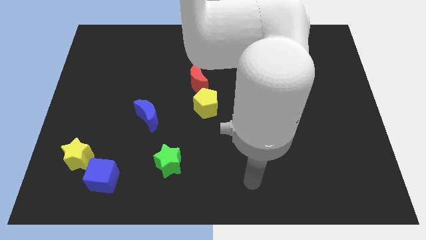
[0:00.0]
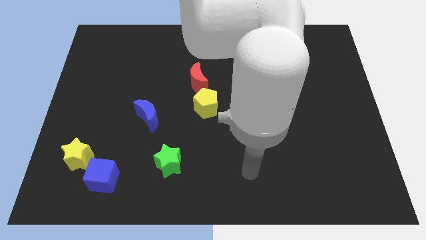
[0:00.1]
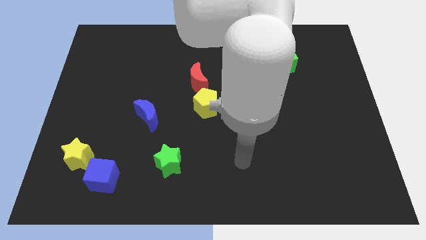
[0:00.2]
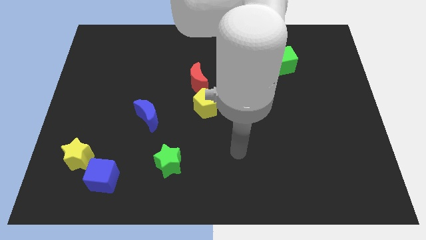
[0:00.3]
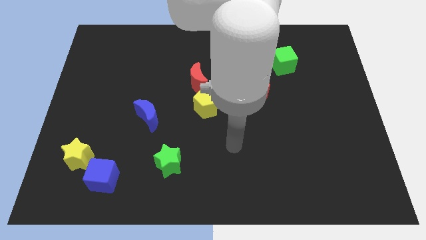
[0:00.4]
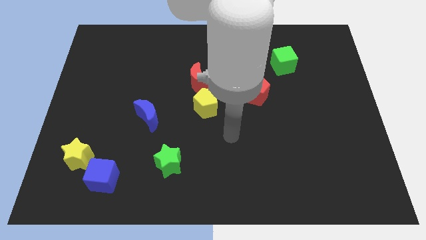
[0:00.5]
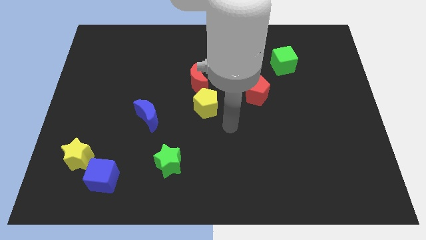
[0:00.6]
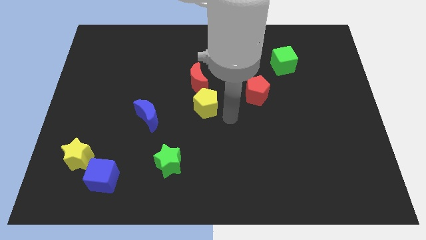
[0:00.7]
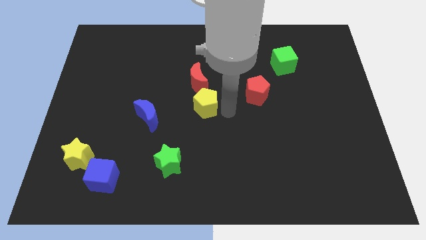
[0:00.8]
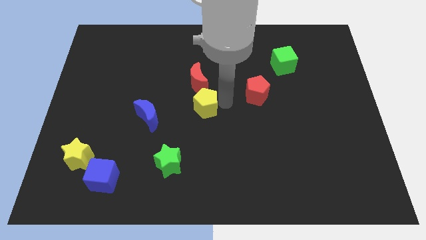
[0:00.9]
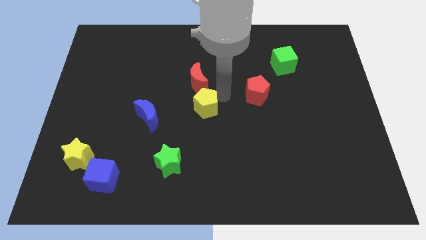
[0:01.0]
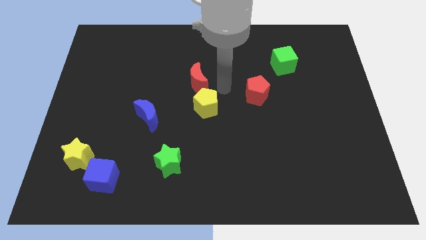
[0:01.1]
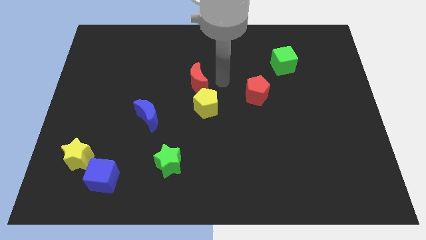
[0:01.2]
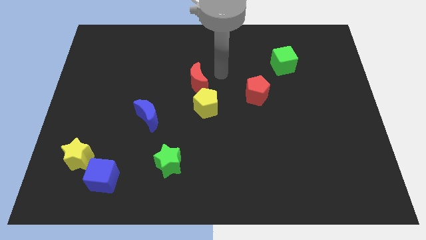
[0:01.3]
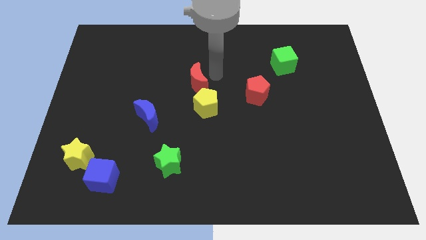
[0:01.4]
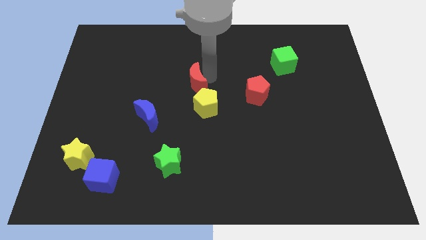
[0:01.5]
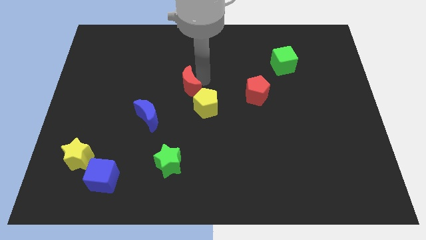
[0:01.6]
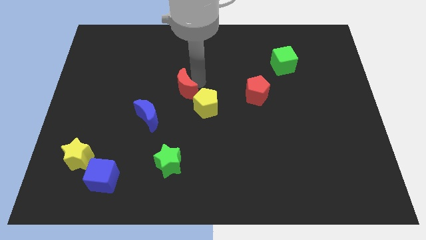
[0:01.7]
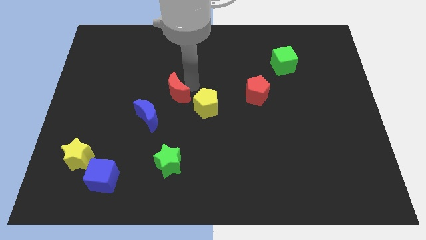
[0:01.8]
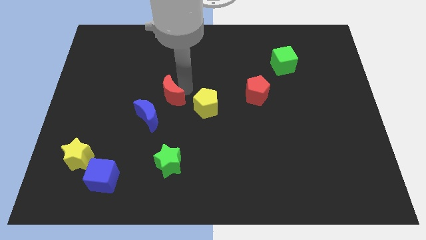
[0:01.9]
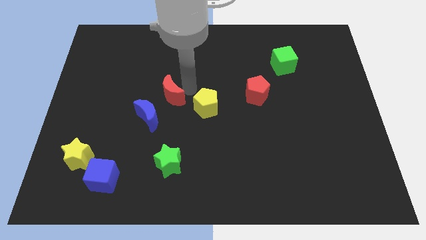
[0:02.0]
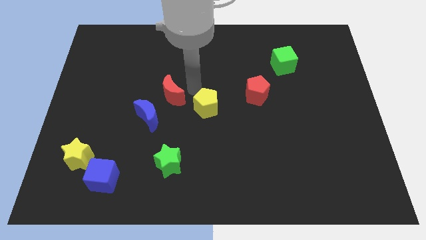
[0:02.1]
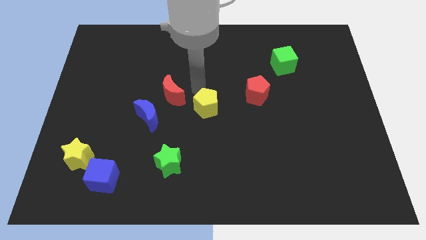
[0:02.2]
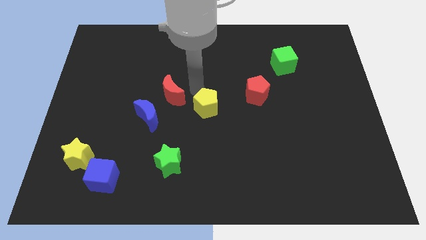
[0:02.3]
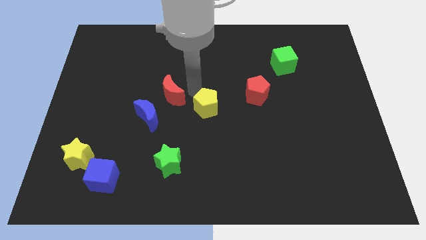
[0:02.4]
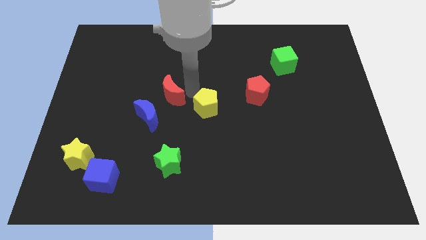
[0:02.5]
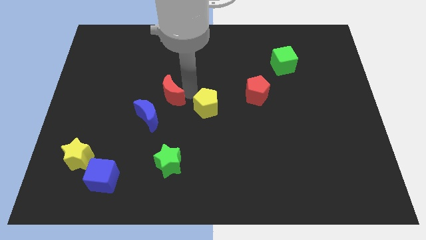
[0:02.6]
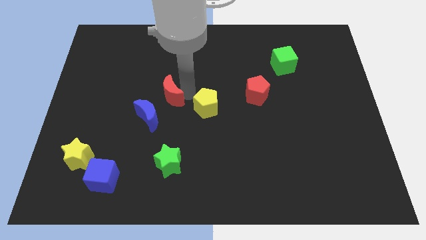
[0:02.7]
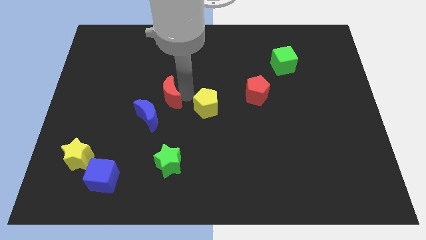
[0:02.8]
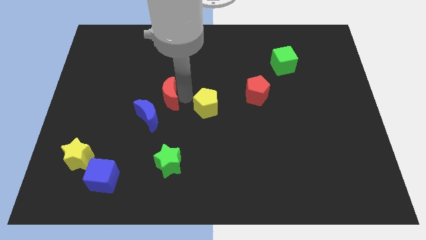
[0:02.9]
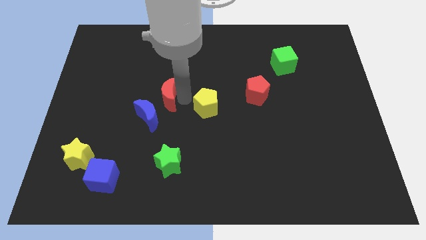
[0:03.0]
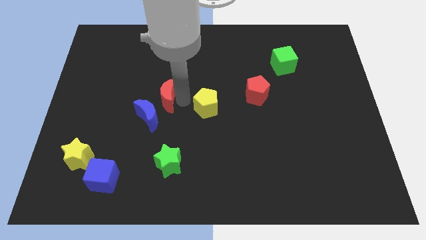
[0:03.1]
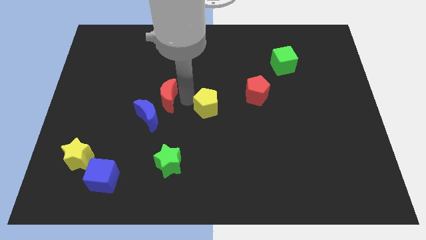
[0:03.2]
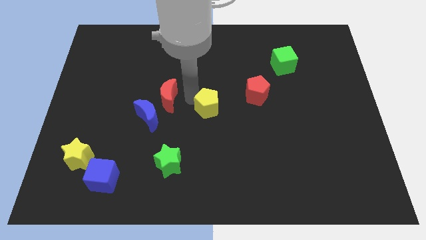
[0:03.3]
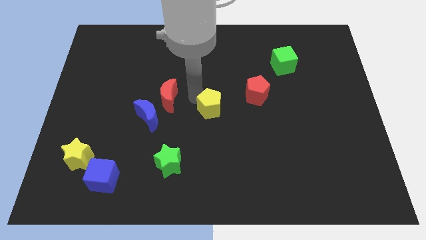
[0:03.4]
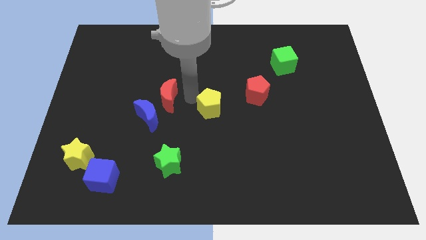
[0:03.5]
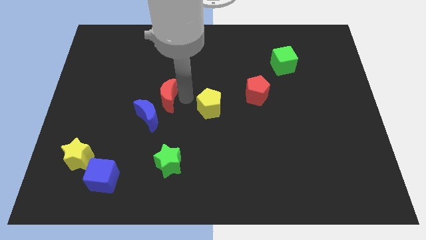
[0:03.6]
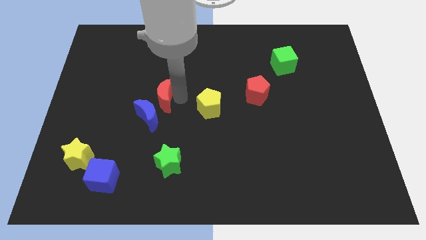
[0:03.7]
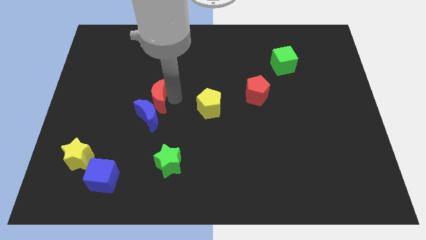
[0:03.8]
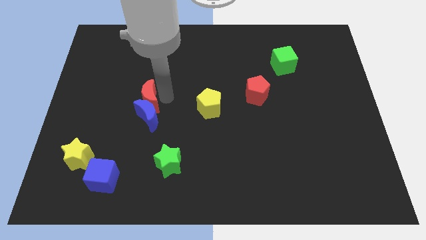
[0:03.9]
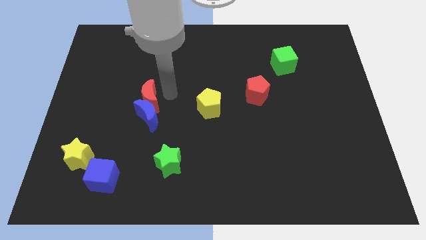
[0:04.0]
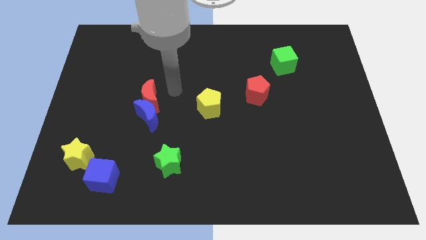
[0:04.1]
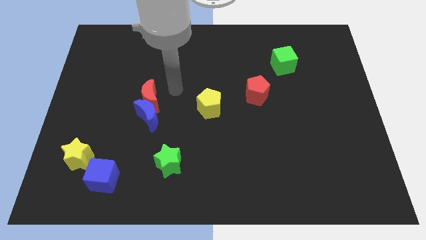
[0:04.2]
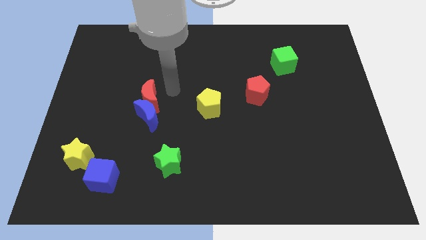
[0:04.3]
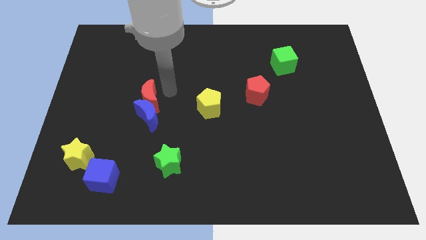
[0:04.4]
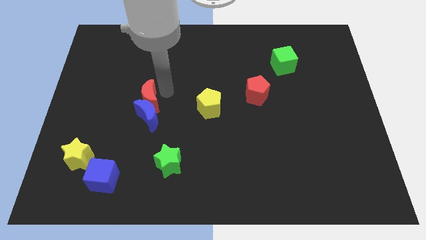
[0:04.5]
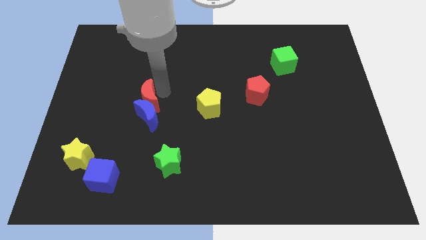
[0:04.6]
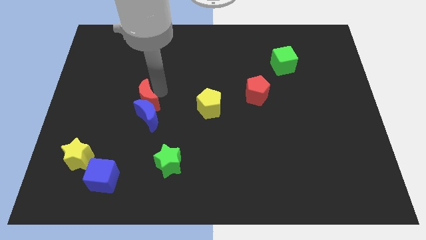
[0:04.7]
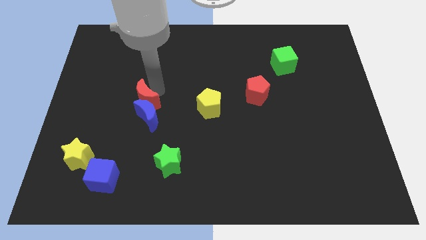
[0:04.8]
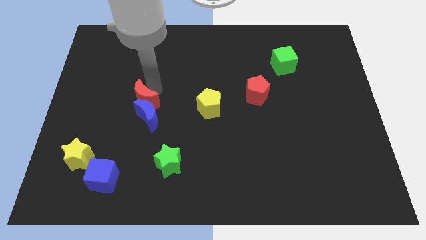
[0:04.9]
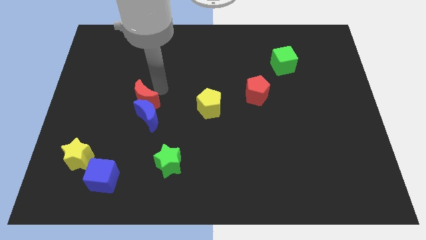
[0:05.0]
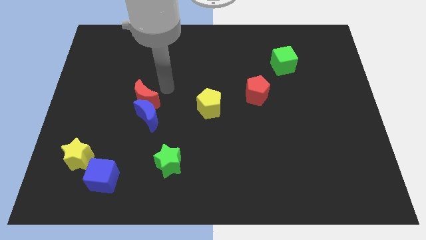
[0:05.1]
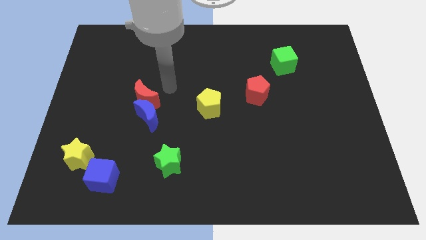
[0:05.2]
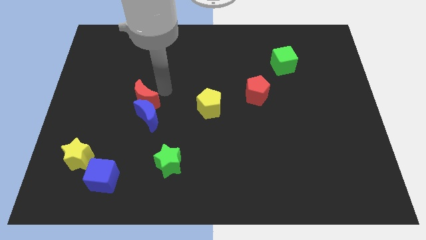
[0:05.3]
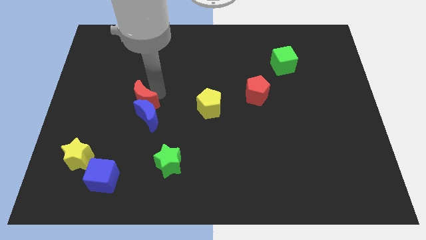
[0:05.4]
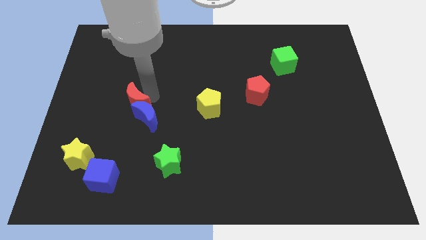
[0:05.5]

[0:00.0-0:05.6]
put the red moon to the left of the blue moon

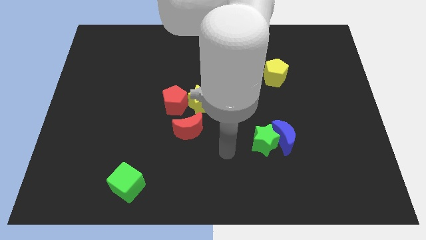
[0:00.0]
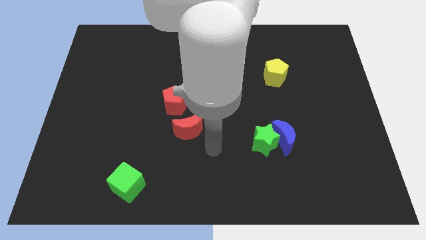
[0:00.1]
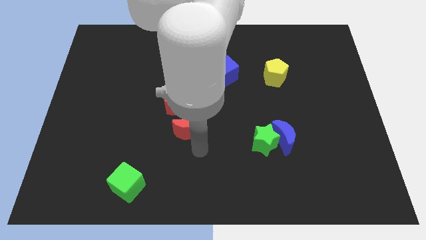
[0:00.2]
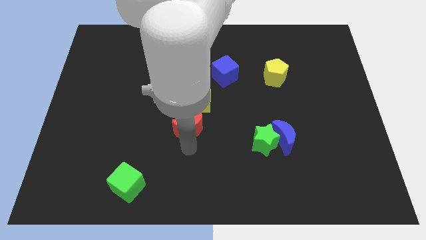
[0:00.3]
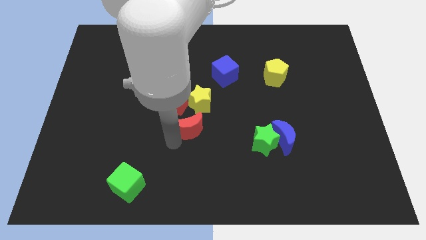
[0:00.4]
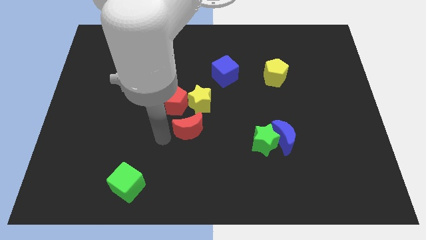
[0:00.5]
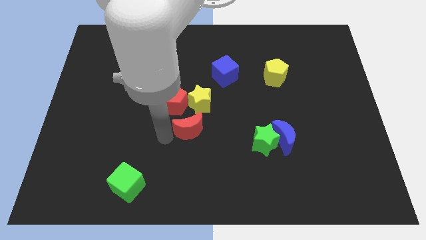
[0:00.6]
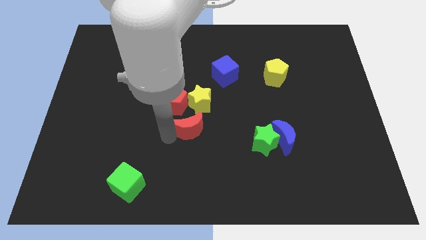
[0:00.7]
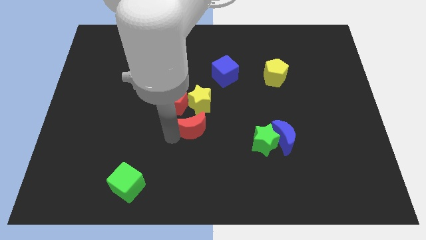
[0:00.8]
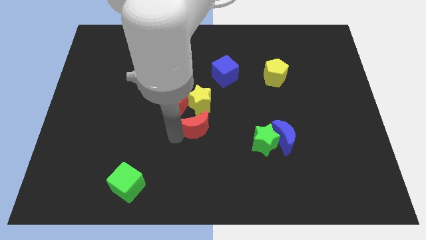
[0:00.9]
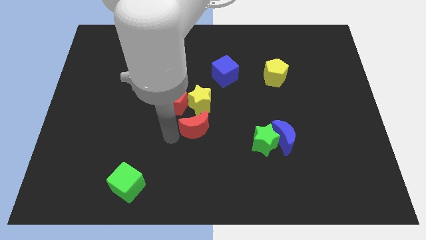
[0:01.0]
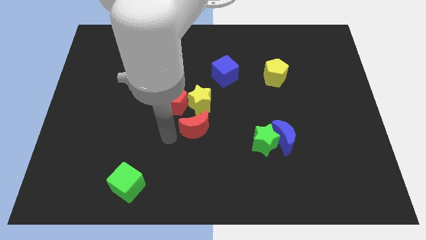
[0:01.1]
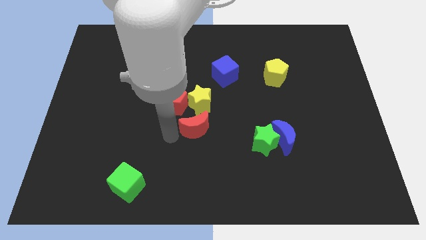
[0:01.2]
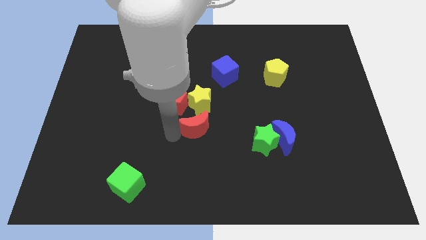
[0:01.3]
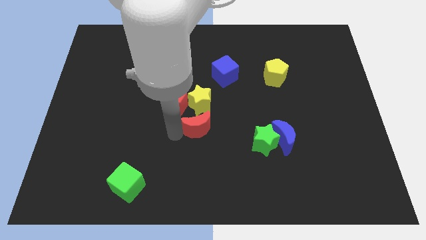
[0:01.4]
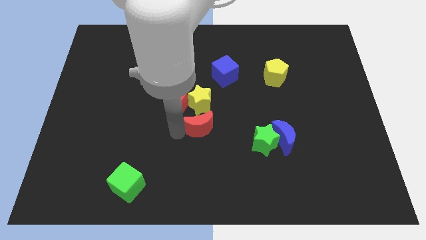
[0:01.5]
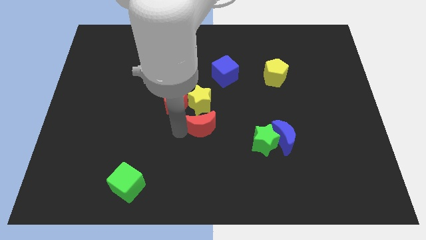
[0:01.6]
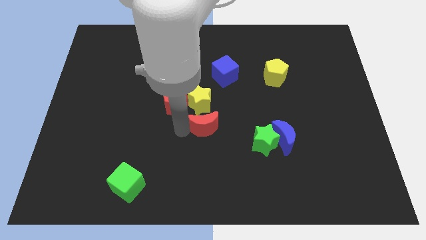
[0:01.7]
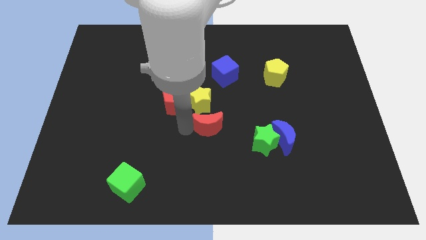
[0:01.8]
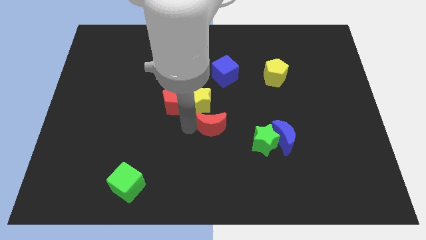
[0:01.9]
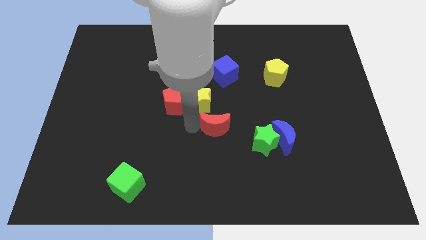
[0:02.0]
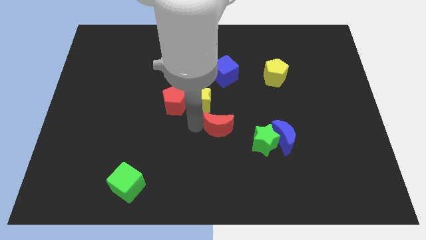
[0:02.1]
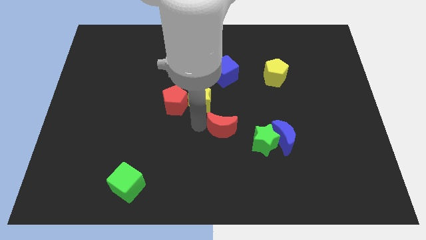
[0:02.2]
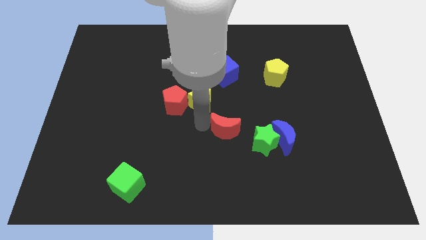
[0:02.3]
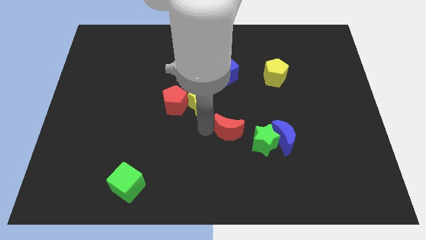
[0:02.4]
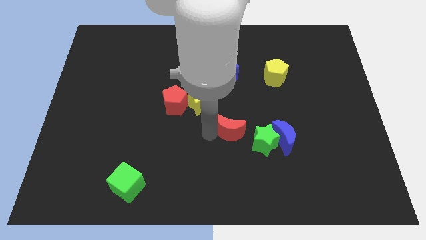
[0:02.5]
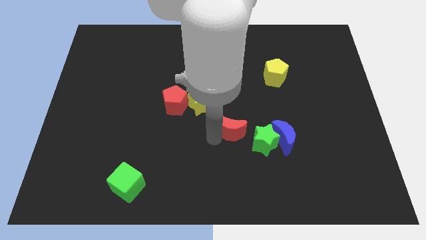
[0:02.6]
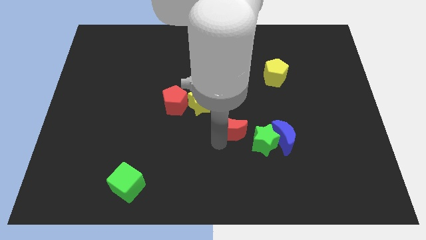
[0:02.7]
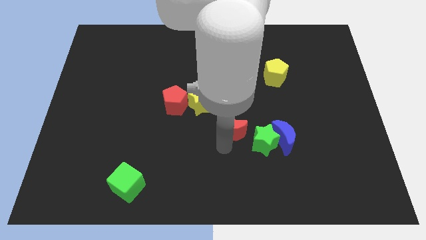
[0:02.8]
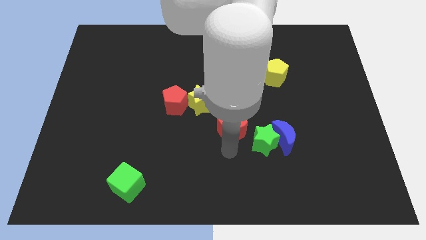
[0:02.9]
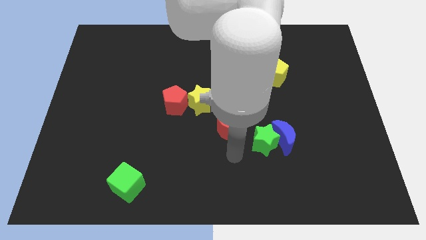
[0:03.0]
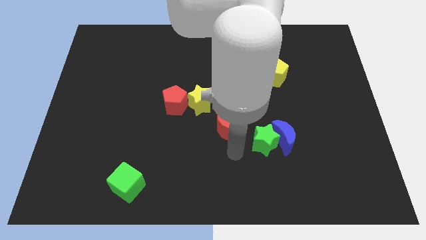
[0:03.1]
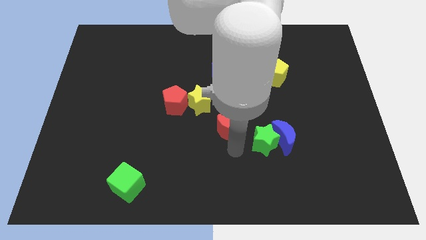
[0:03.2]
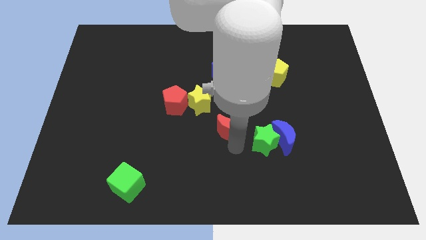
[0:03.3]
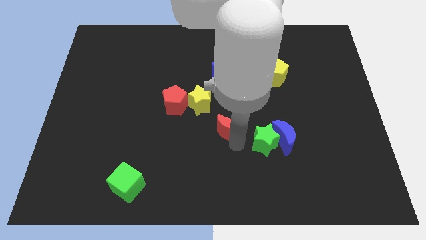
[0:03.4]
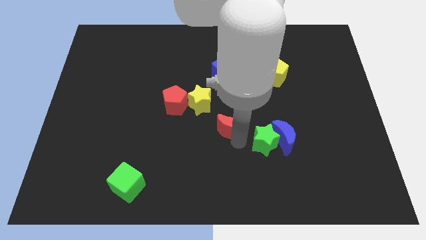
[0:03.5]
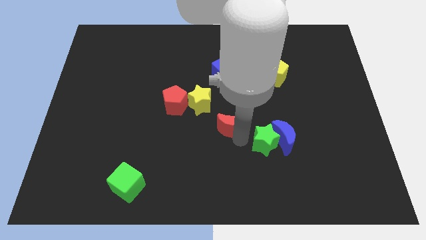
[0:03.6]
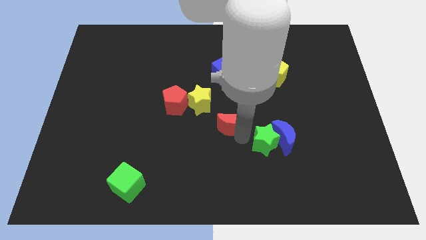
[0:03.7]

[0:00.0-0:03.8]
push the red moon to the bottom side of the blue cube
